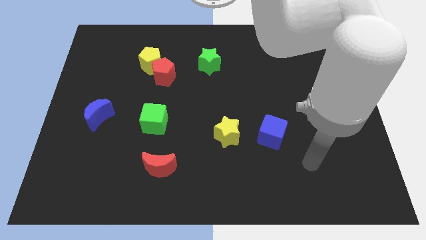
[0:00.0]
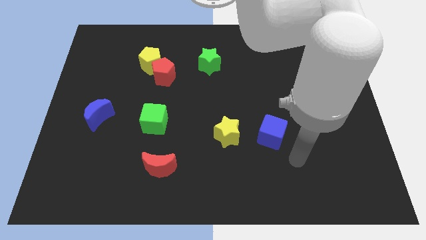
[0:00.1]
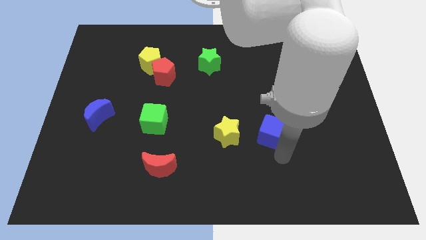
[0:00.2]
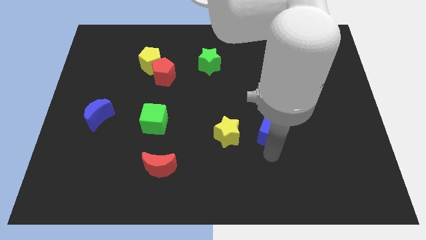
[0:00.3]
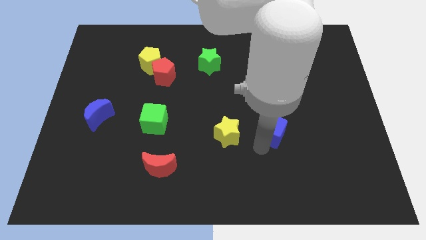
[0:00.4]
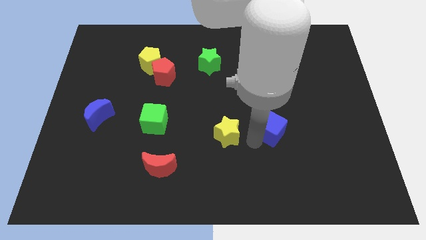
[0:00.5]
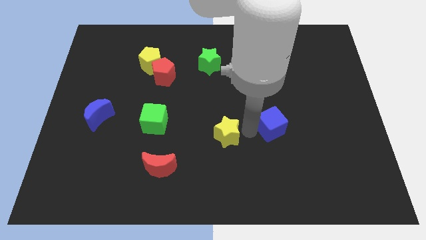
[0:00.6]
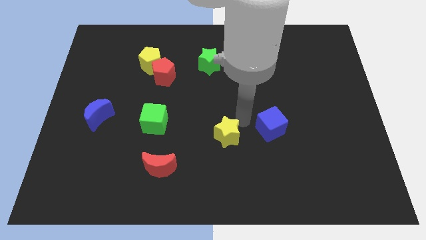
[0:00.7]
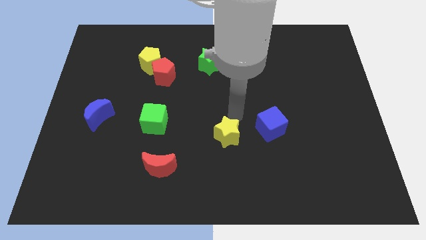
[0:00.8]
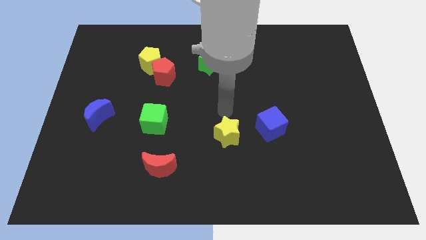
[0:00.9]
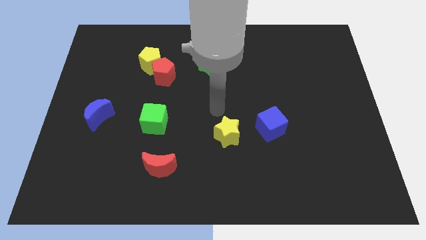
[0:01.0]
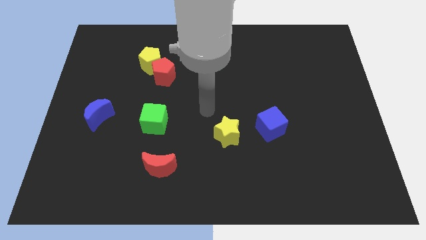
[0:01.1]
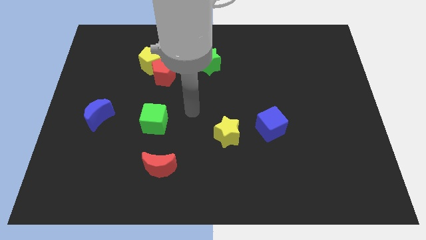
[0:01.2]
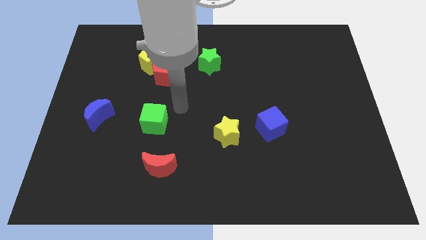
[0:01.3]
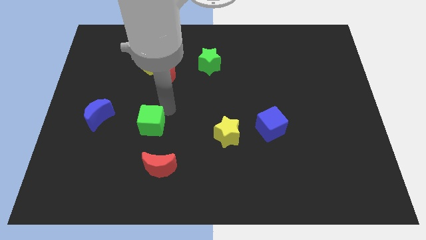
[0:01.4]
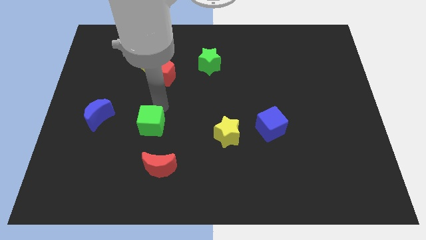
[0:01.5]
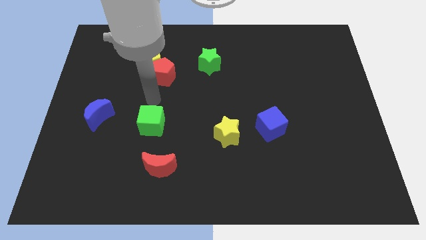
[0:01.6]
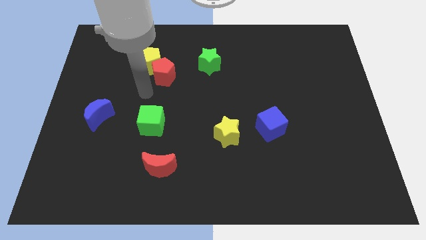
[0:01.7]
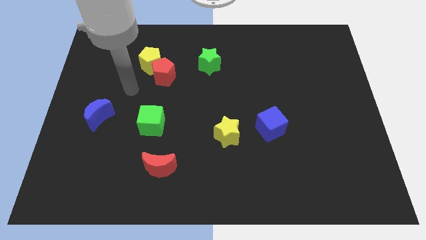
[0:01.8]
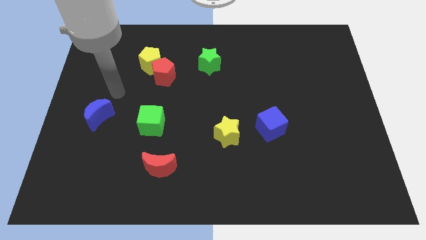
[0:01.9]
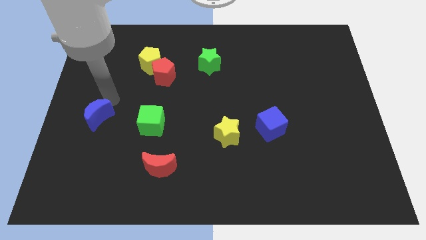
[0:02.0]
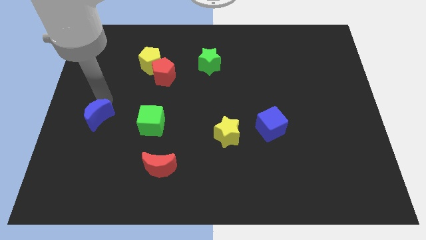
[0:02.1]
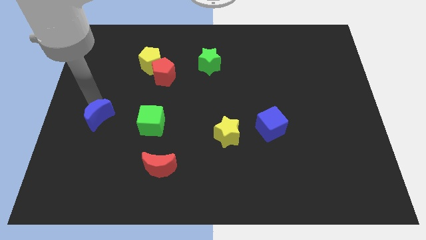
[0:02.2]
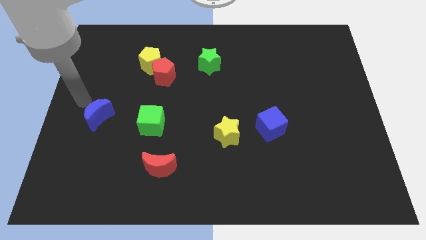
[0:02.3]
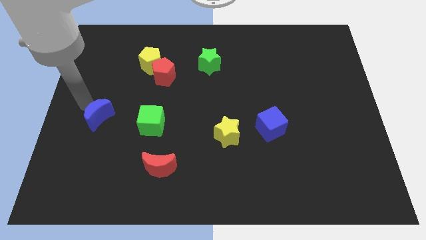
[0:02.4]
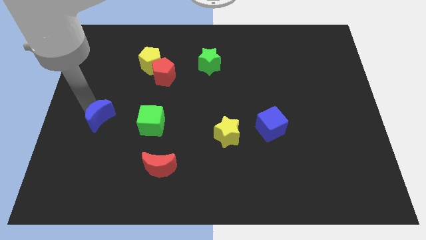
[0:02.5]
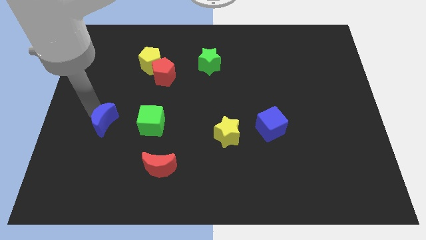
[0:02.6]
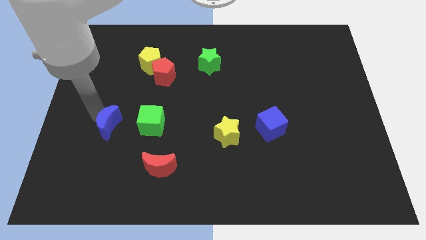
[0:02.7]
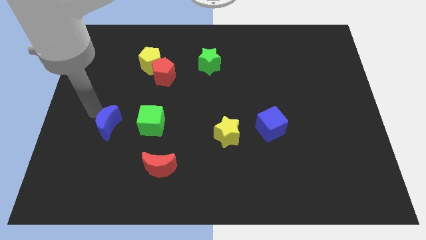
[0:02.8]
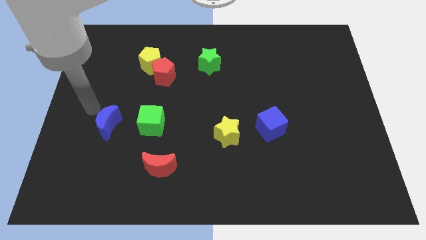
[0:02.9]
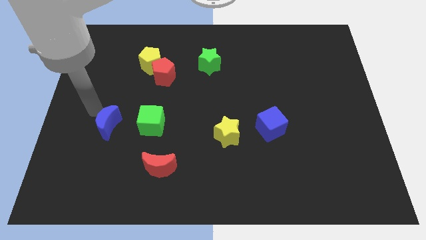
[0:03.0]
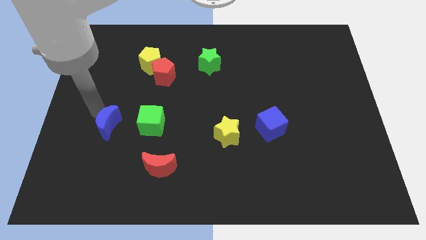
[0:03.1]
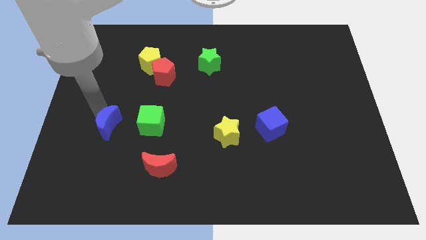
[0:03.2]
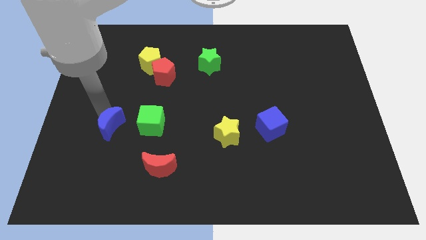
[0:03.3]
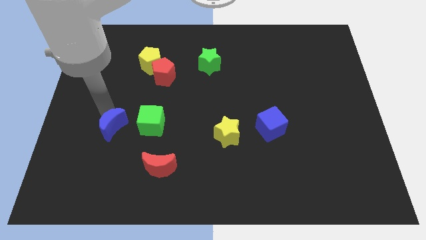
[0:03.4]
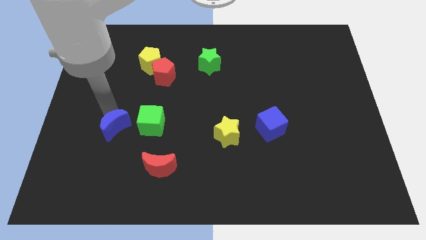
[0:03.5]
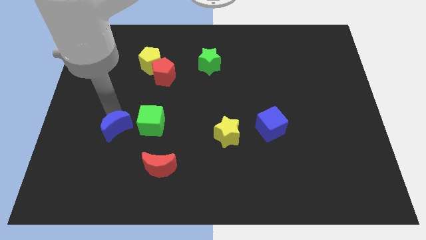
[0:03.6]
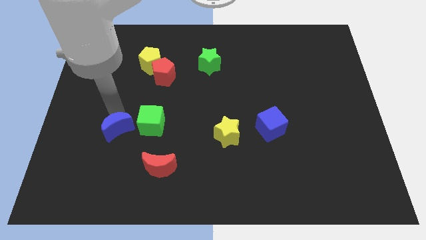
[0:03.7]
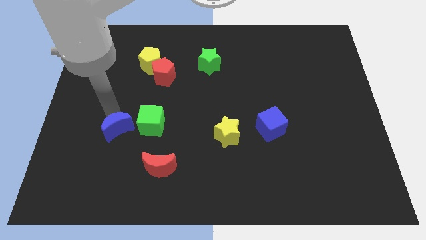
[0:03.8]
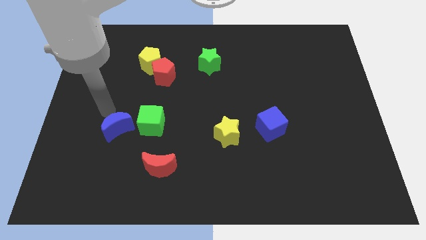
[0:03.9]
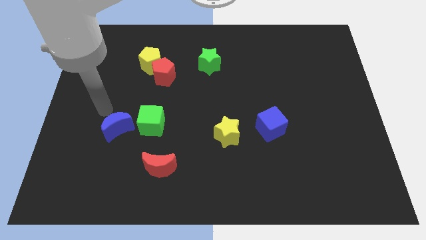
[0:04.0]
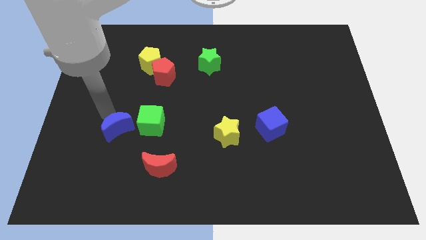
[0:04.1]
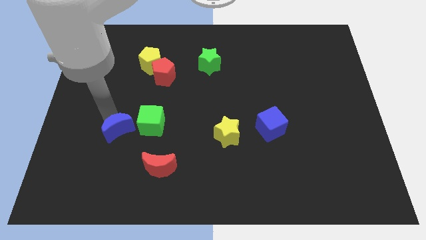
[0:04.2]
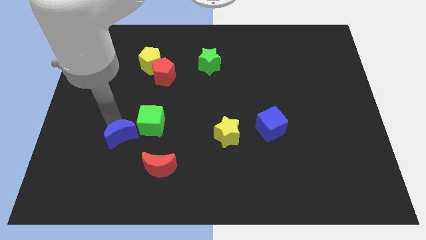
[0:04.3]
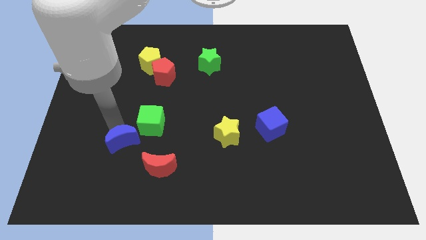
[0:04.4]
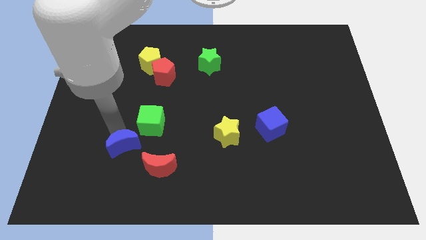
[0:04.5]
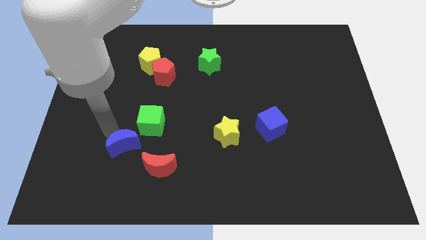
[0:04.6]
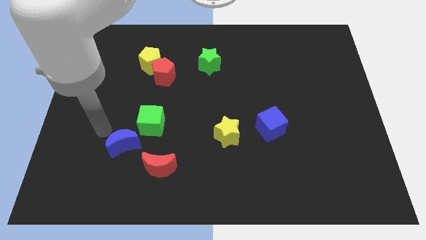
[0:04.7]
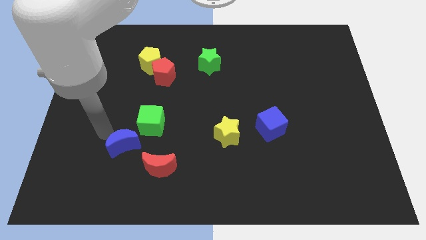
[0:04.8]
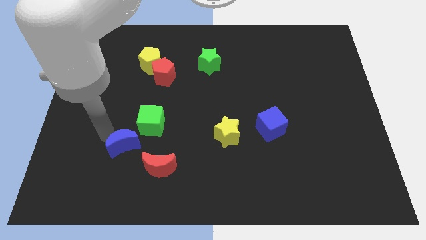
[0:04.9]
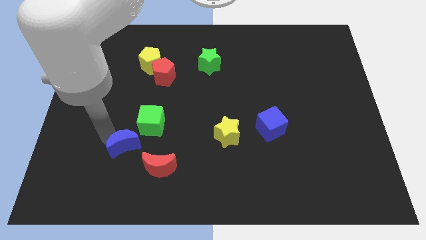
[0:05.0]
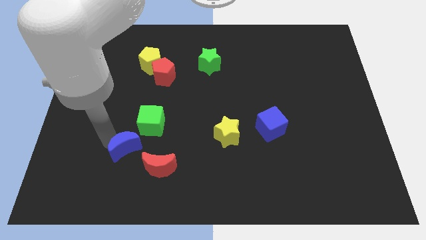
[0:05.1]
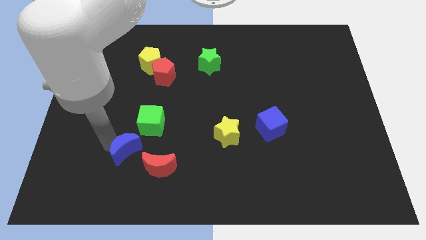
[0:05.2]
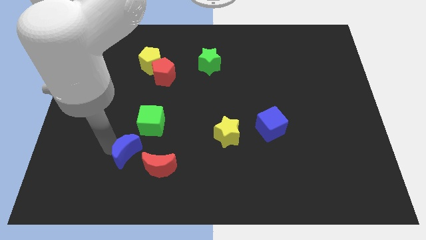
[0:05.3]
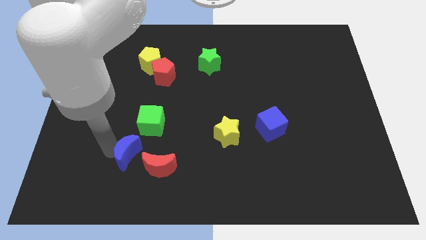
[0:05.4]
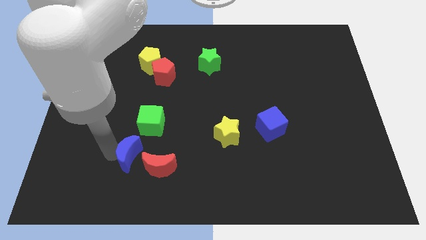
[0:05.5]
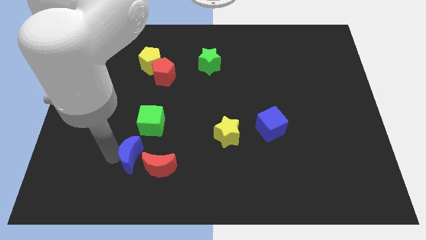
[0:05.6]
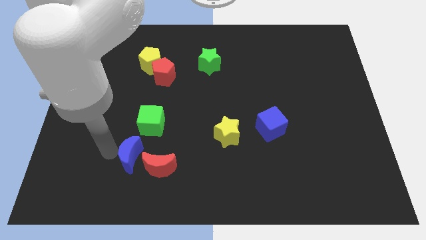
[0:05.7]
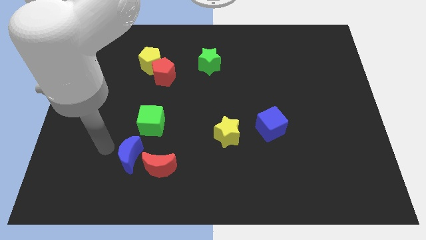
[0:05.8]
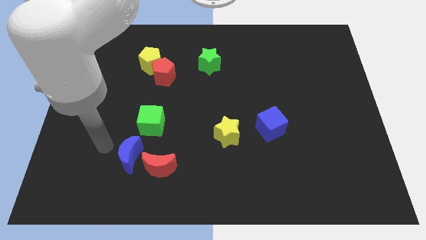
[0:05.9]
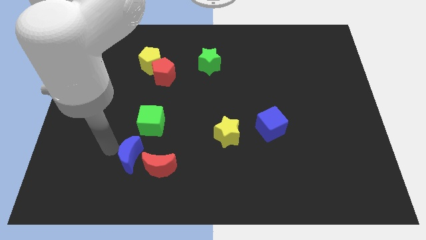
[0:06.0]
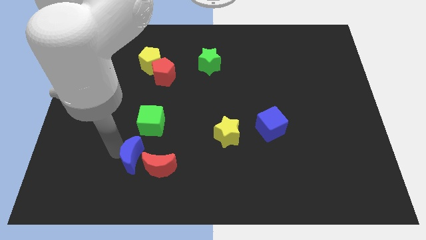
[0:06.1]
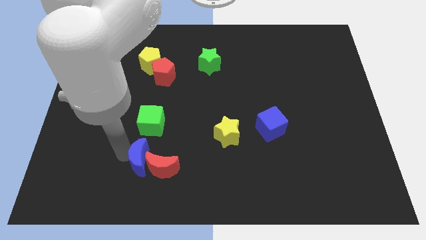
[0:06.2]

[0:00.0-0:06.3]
move the blue moon next to the red moon

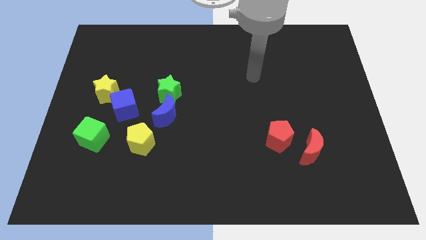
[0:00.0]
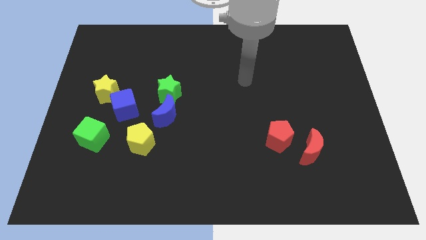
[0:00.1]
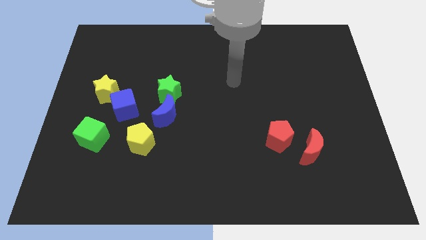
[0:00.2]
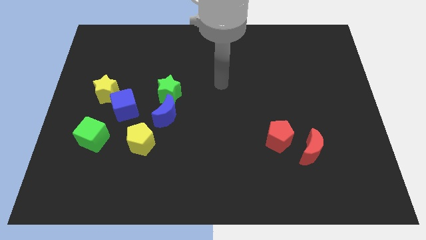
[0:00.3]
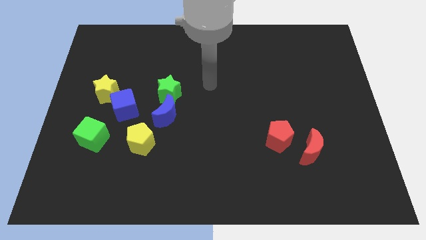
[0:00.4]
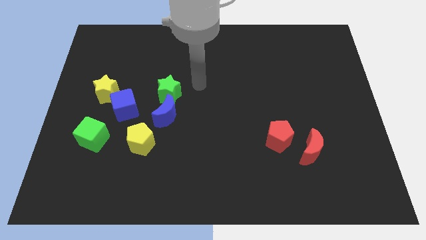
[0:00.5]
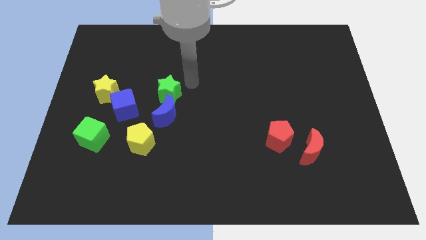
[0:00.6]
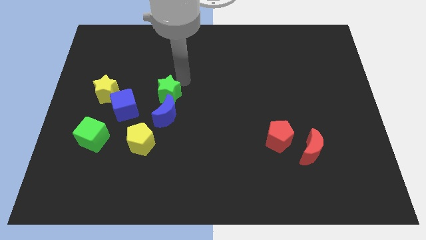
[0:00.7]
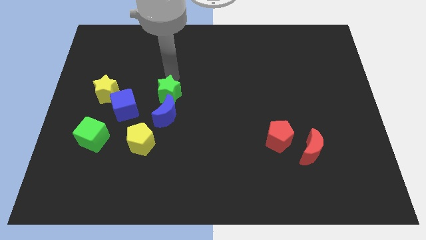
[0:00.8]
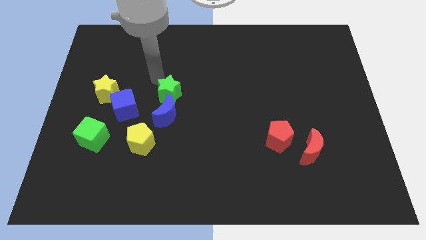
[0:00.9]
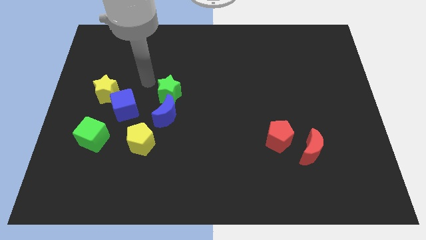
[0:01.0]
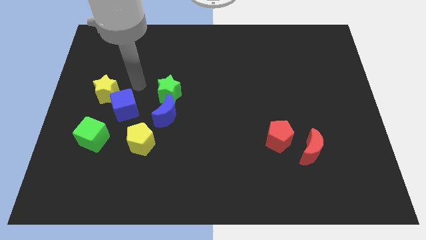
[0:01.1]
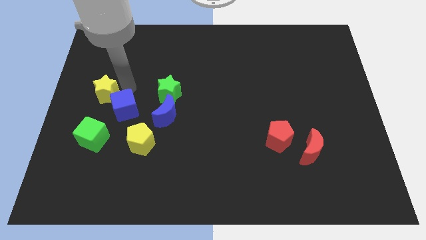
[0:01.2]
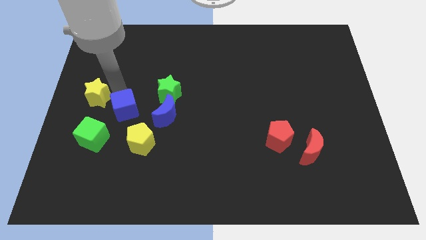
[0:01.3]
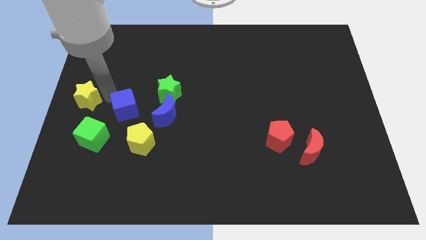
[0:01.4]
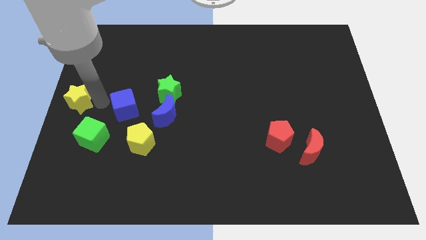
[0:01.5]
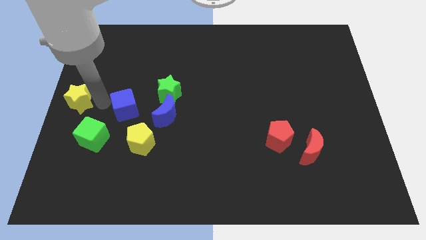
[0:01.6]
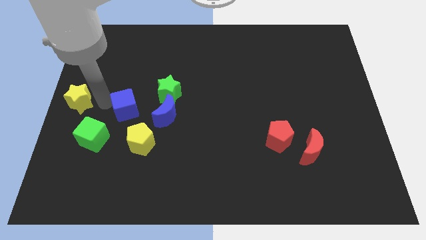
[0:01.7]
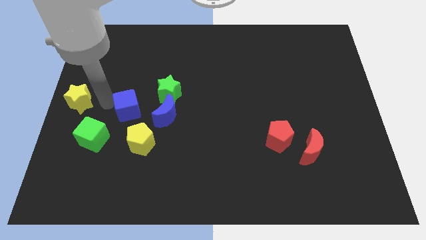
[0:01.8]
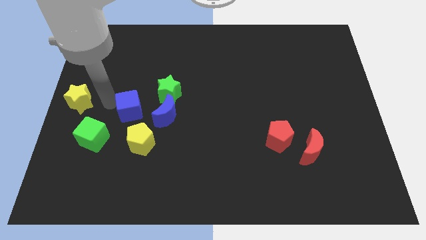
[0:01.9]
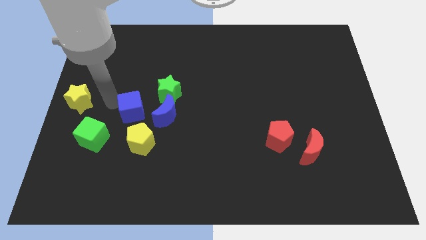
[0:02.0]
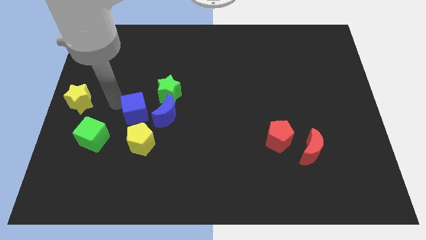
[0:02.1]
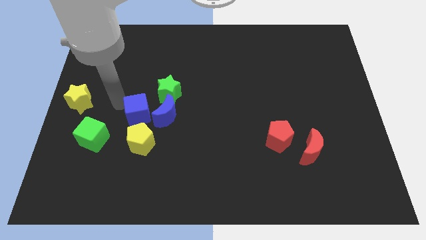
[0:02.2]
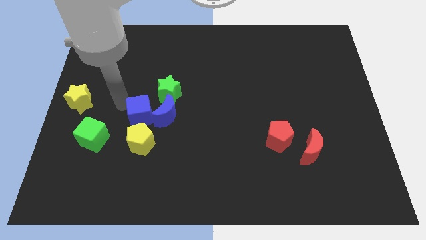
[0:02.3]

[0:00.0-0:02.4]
put the blue cube to the blue moon
